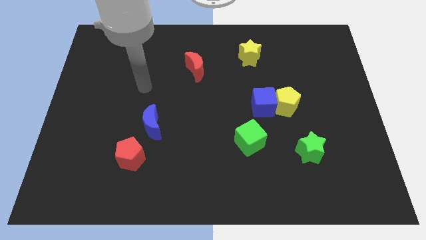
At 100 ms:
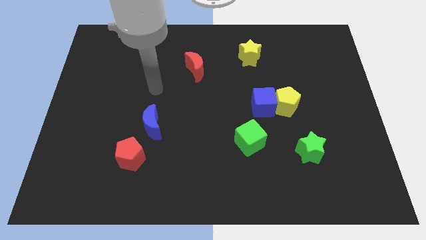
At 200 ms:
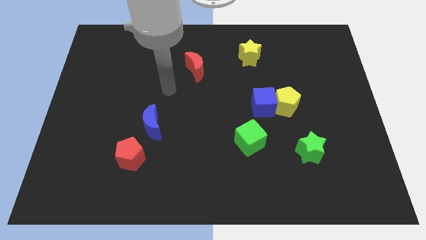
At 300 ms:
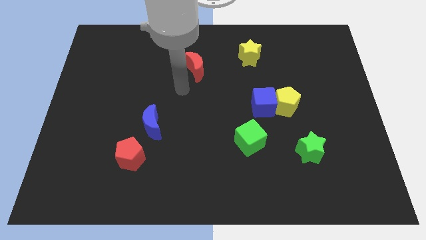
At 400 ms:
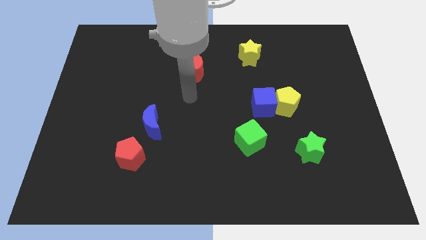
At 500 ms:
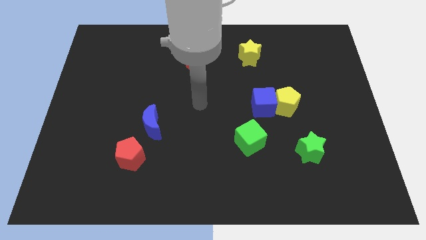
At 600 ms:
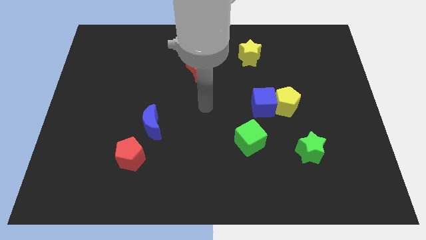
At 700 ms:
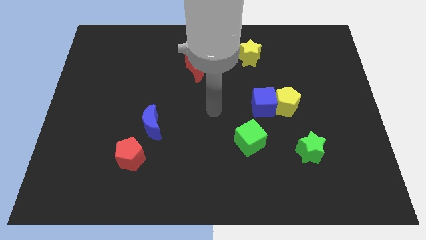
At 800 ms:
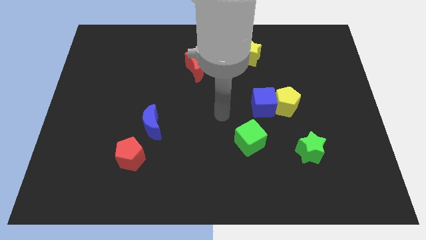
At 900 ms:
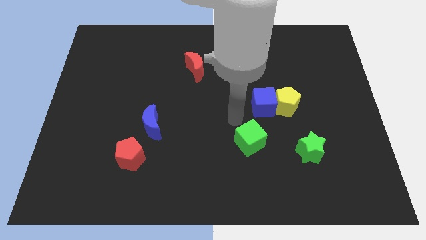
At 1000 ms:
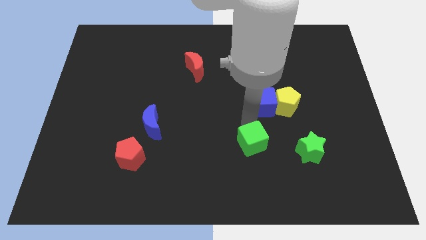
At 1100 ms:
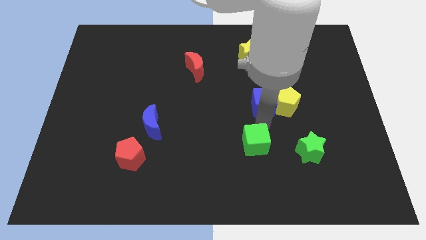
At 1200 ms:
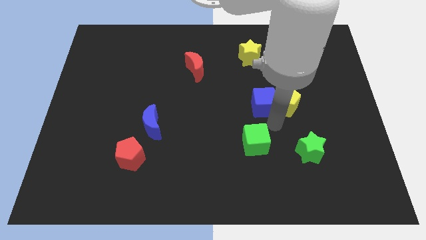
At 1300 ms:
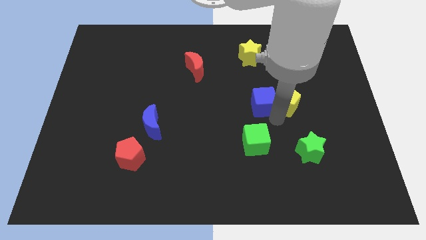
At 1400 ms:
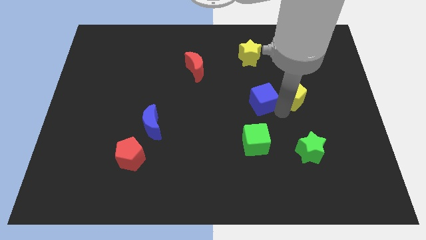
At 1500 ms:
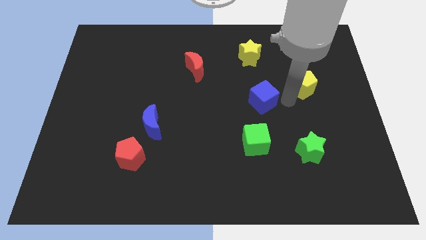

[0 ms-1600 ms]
move the blue cube away from the yellow pentagon

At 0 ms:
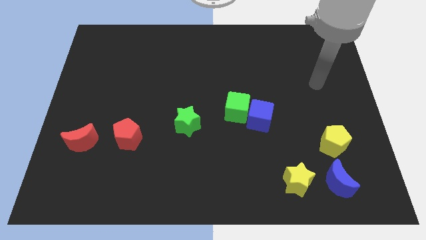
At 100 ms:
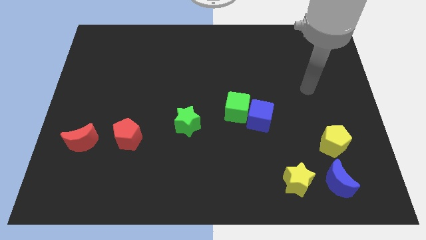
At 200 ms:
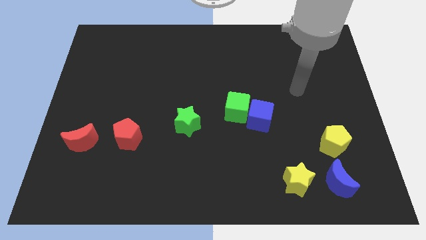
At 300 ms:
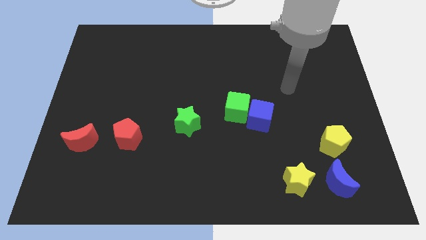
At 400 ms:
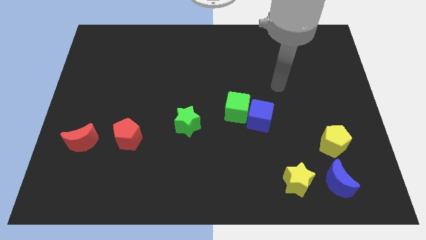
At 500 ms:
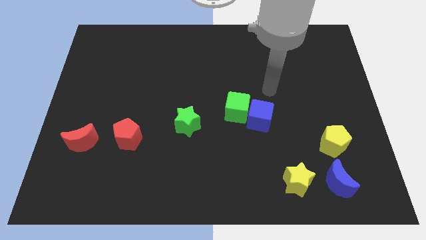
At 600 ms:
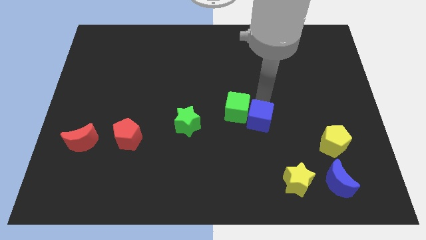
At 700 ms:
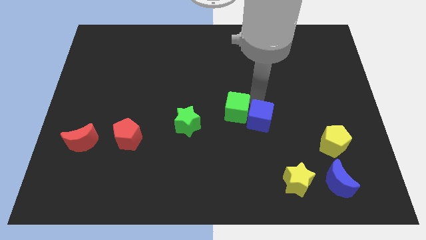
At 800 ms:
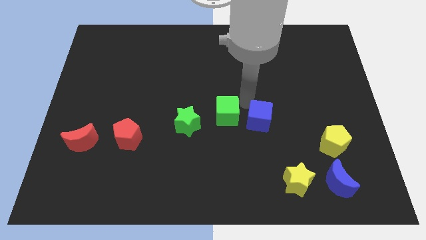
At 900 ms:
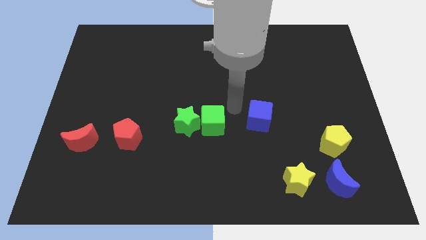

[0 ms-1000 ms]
pull the blue cube apart from the green cube

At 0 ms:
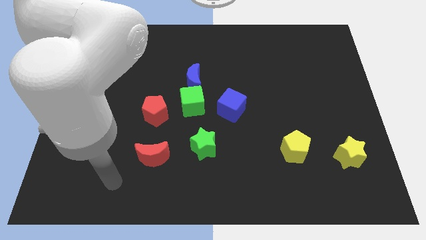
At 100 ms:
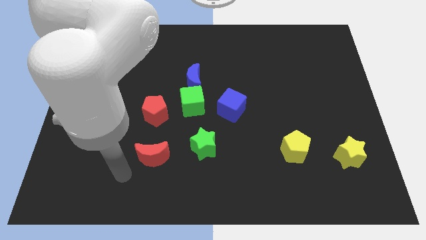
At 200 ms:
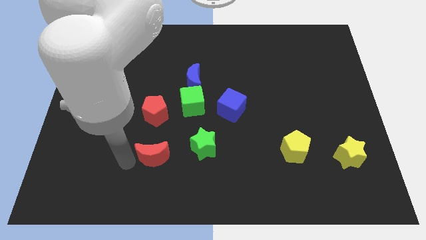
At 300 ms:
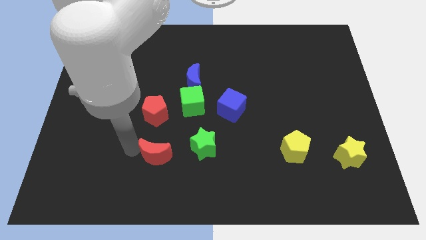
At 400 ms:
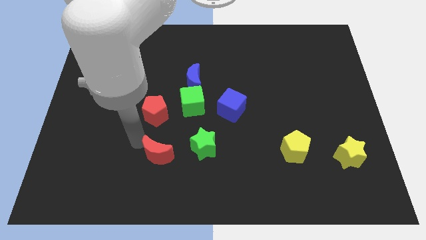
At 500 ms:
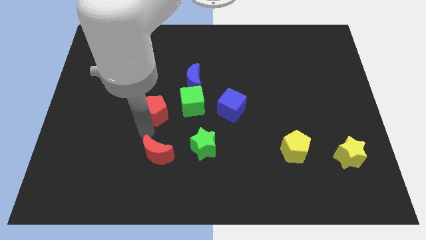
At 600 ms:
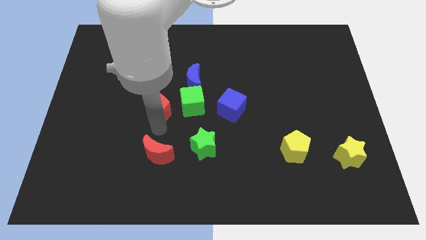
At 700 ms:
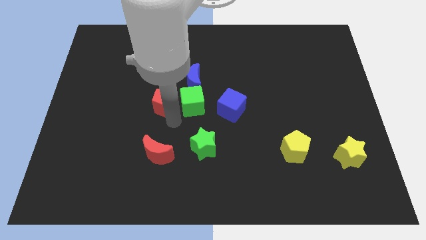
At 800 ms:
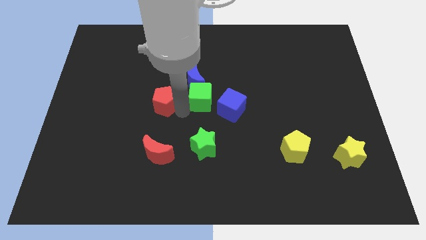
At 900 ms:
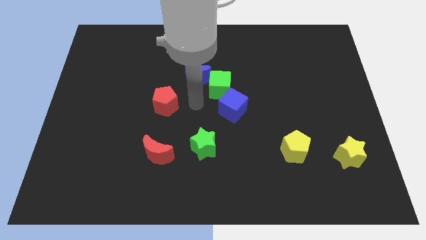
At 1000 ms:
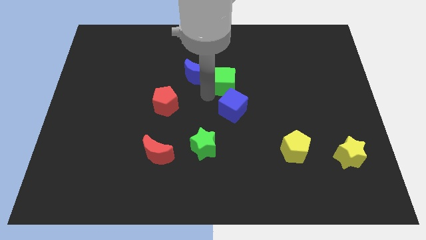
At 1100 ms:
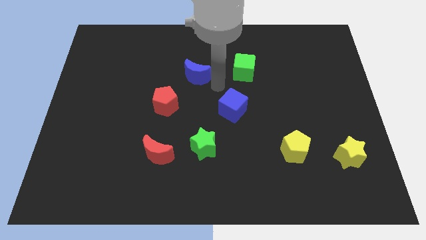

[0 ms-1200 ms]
pull the blue moon apart from the green cube

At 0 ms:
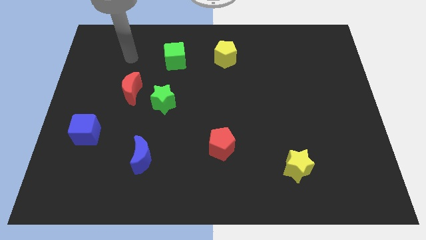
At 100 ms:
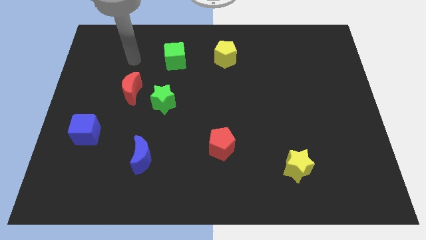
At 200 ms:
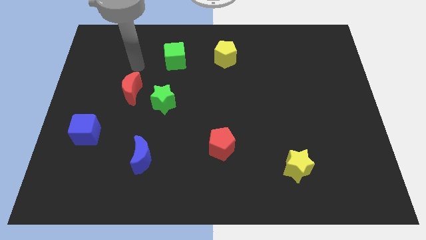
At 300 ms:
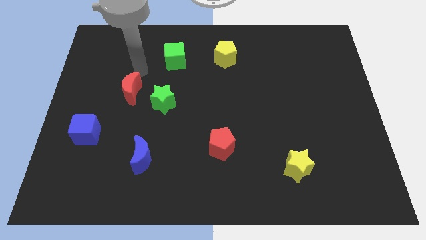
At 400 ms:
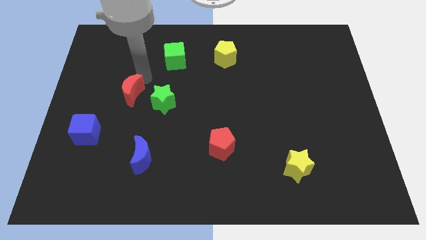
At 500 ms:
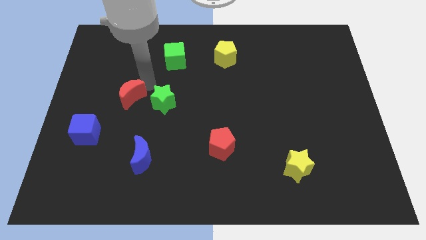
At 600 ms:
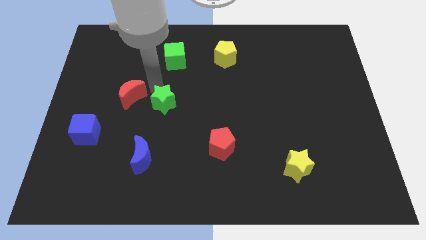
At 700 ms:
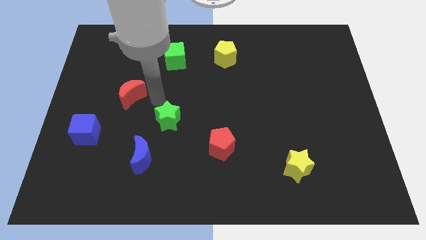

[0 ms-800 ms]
separate the red moon from the green star

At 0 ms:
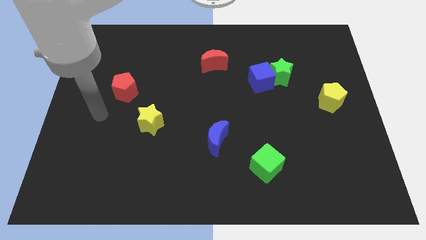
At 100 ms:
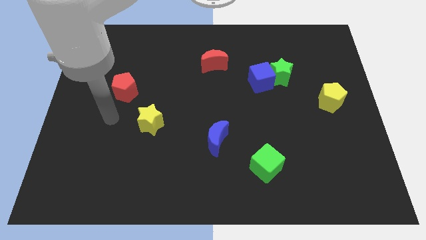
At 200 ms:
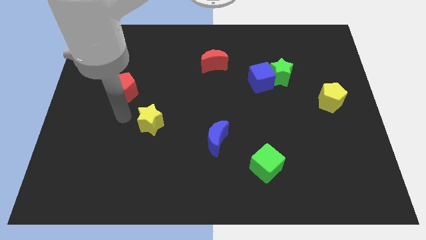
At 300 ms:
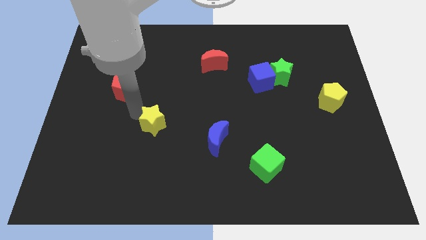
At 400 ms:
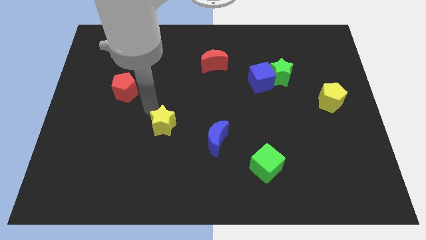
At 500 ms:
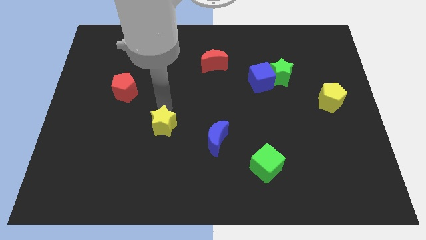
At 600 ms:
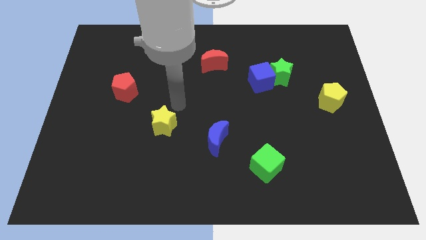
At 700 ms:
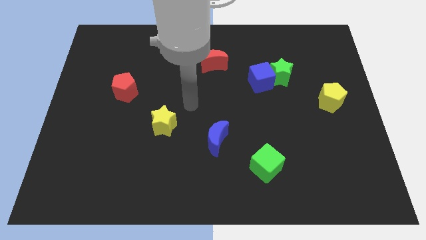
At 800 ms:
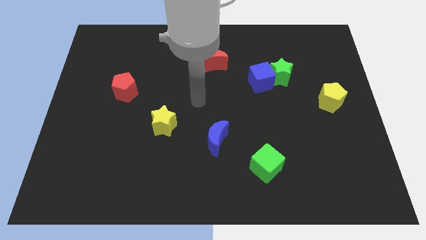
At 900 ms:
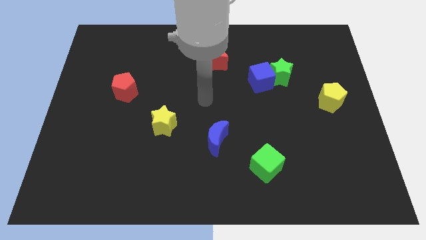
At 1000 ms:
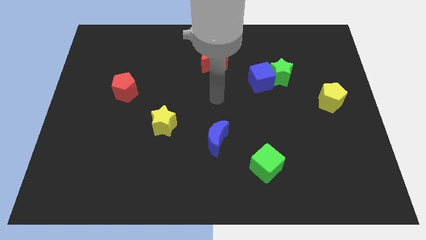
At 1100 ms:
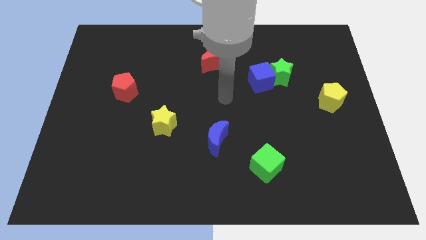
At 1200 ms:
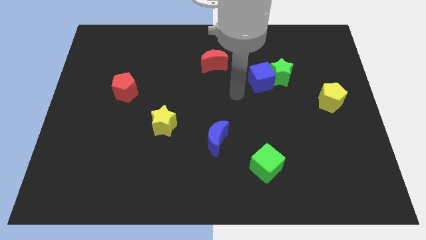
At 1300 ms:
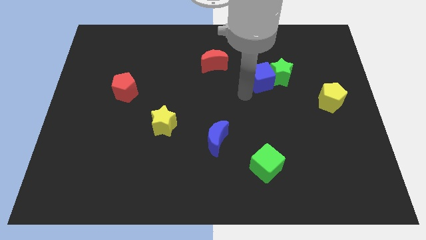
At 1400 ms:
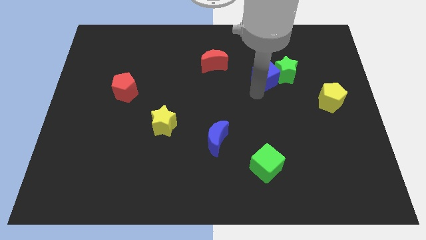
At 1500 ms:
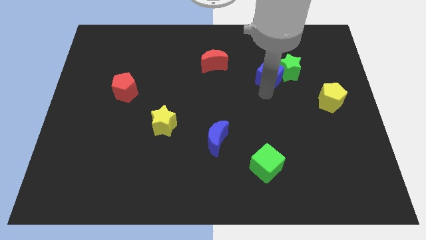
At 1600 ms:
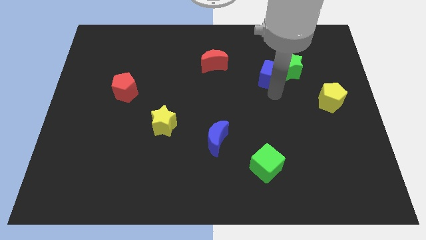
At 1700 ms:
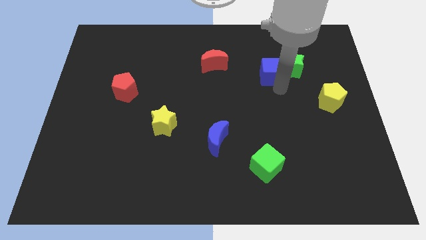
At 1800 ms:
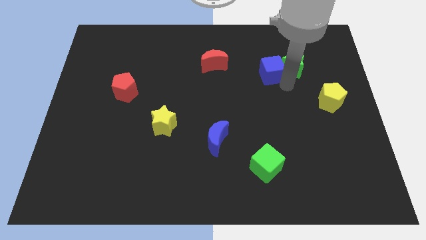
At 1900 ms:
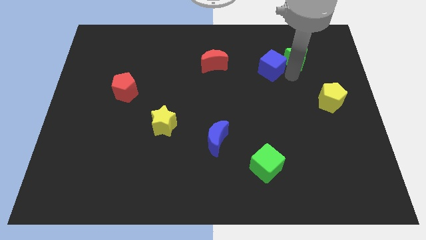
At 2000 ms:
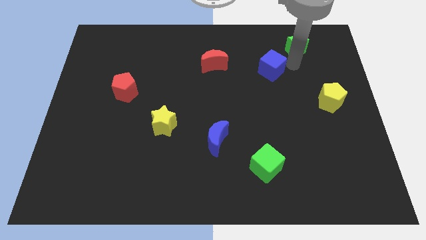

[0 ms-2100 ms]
separate the blue cube from the green star

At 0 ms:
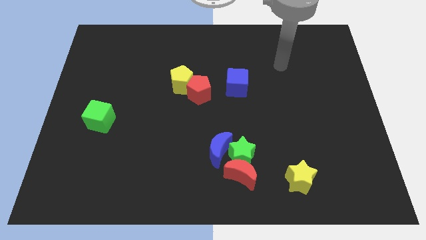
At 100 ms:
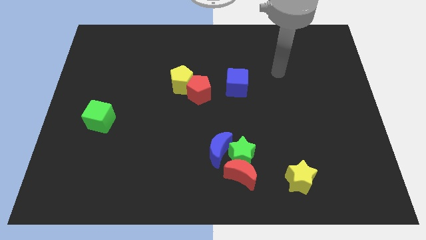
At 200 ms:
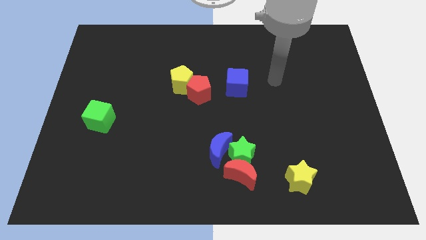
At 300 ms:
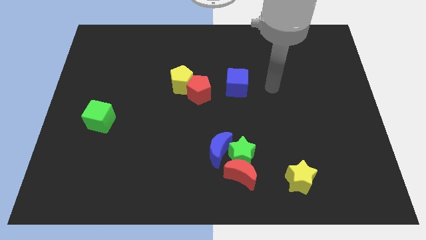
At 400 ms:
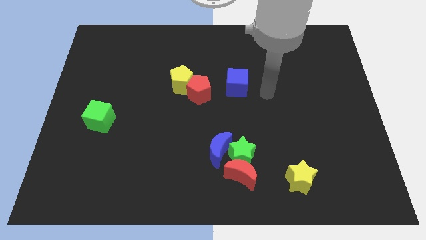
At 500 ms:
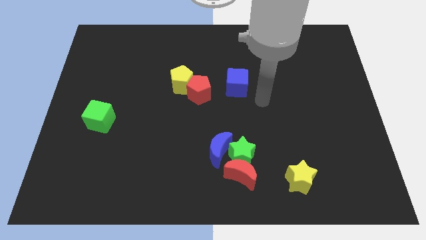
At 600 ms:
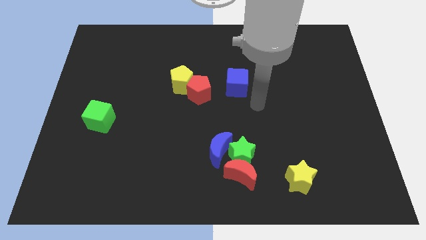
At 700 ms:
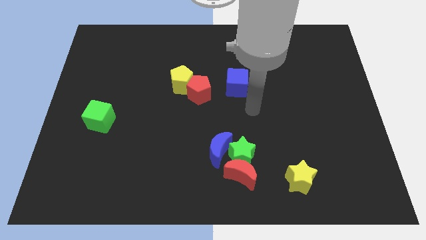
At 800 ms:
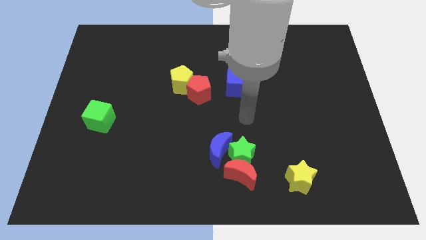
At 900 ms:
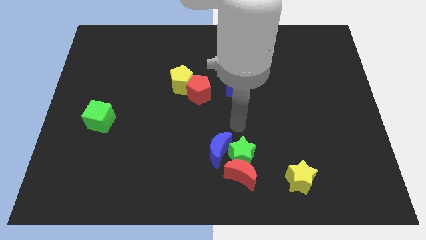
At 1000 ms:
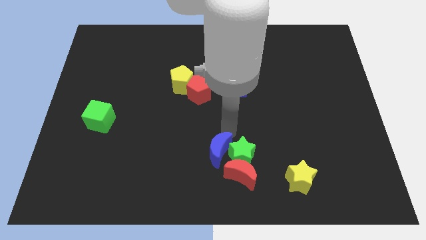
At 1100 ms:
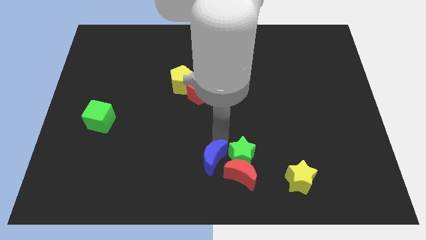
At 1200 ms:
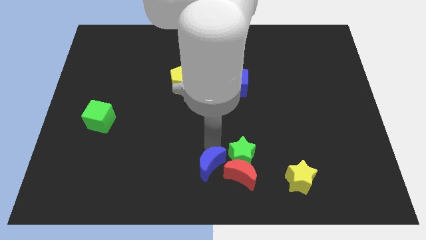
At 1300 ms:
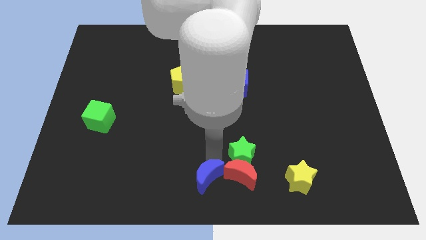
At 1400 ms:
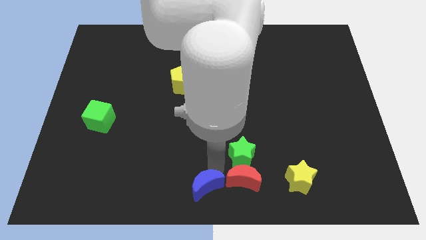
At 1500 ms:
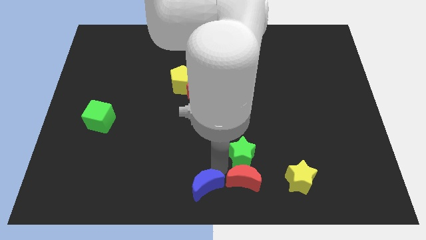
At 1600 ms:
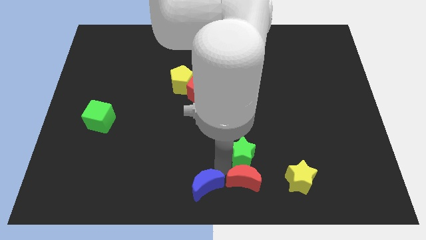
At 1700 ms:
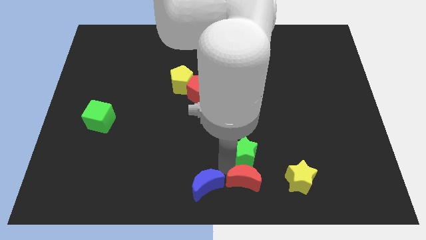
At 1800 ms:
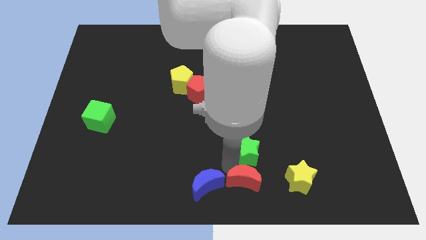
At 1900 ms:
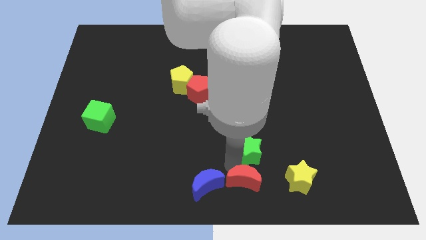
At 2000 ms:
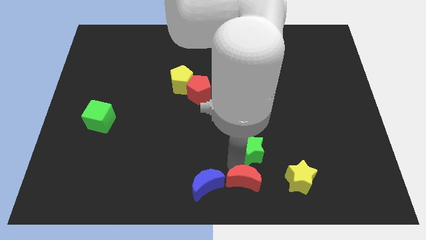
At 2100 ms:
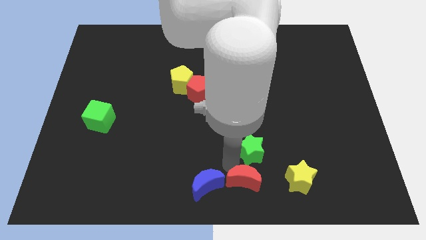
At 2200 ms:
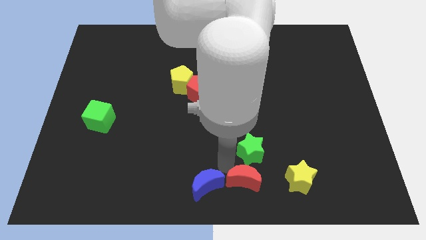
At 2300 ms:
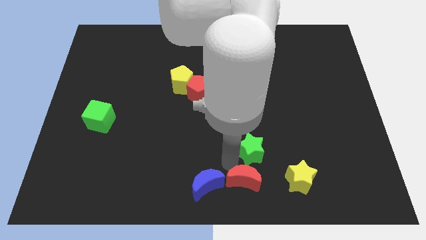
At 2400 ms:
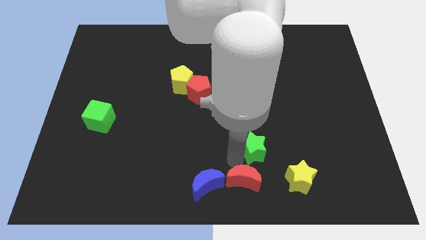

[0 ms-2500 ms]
move the green star away from the red moon and blue moon
